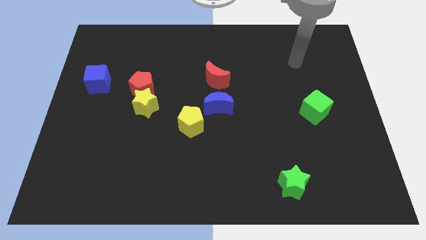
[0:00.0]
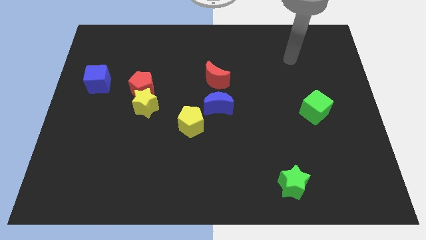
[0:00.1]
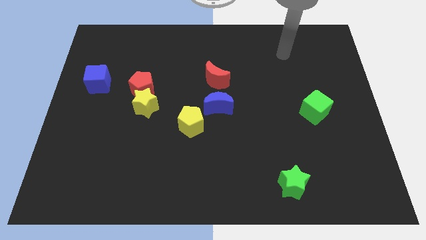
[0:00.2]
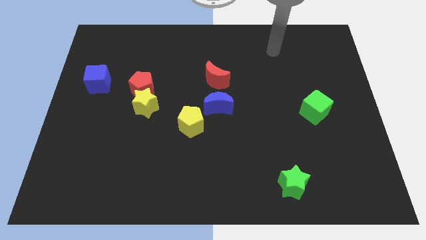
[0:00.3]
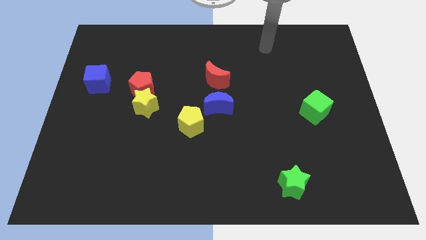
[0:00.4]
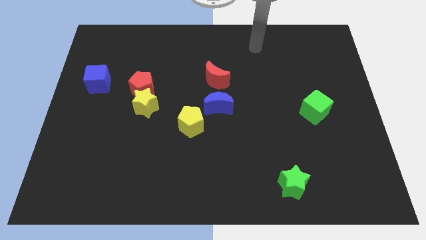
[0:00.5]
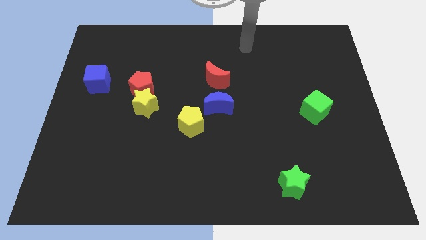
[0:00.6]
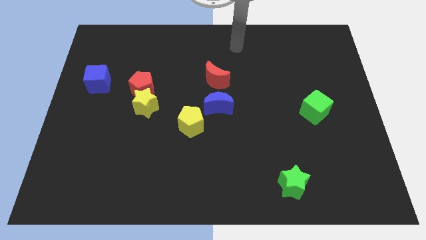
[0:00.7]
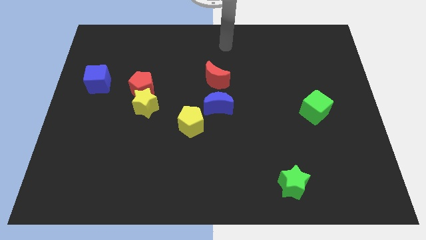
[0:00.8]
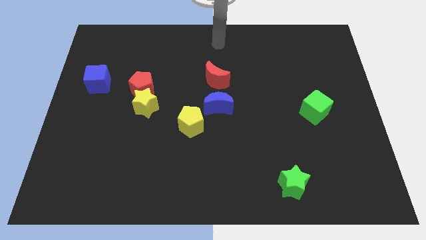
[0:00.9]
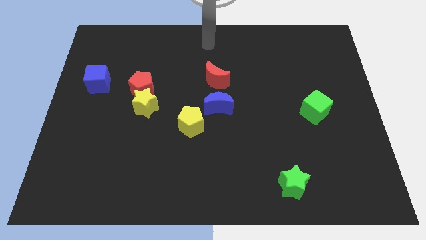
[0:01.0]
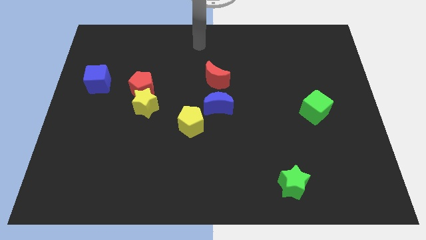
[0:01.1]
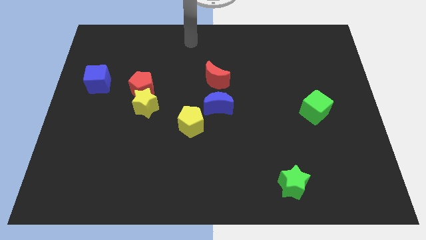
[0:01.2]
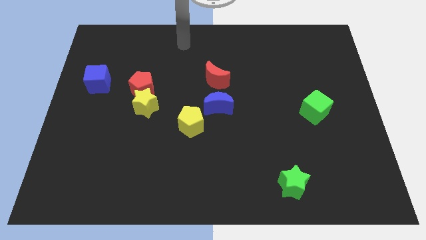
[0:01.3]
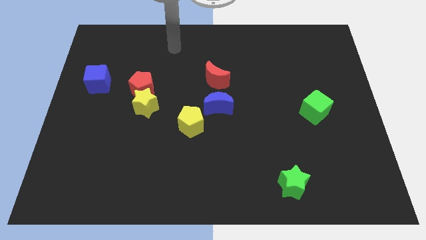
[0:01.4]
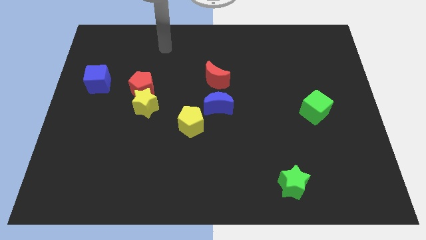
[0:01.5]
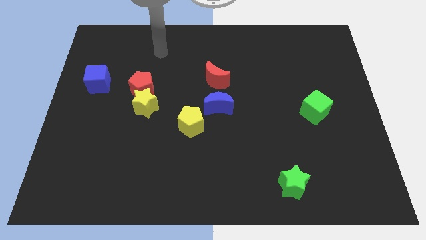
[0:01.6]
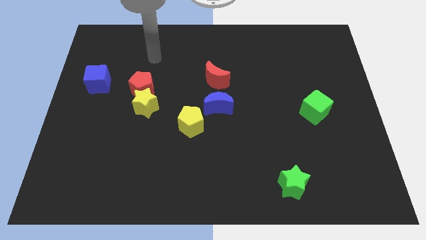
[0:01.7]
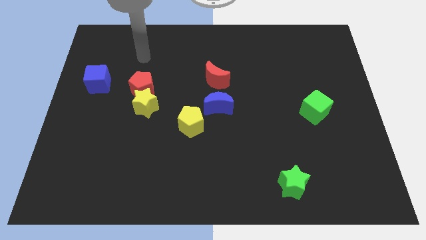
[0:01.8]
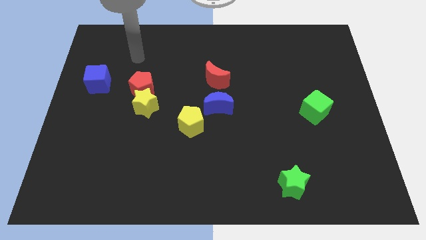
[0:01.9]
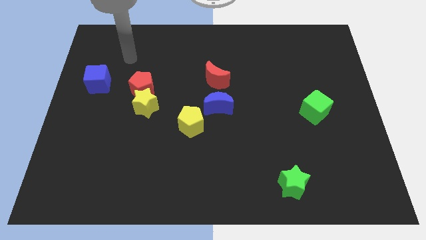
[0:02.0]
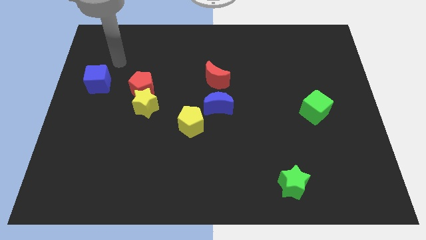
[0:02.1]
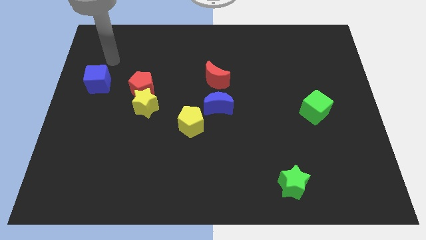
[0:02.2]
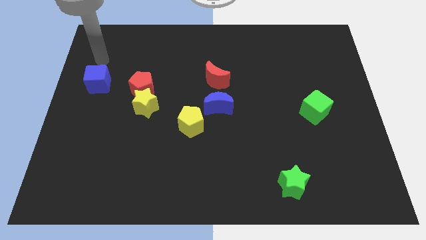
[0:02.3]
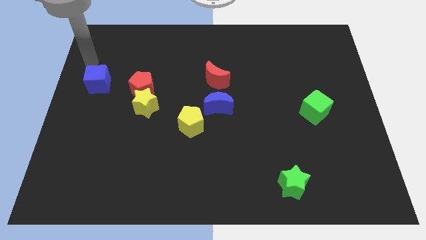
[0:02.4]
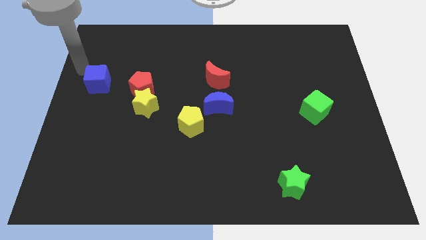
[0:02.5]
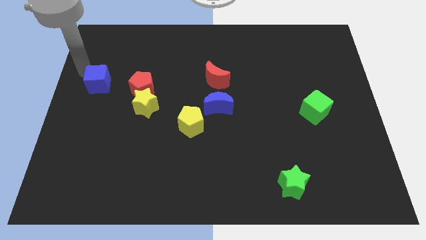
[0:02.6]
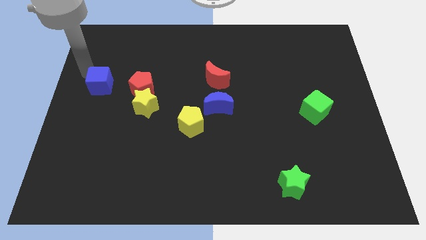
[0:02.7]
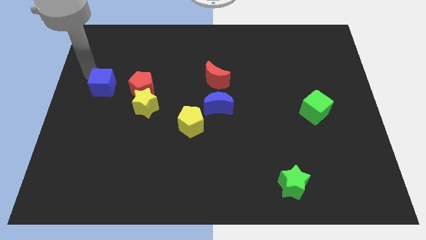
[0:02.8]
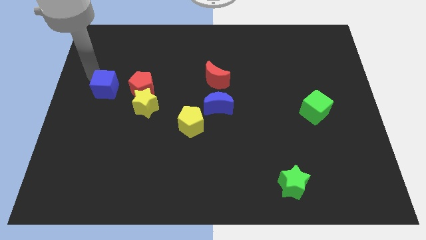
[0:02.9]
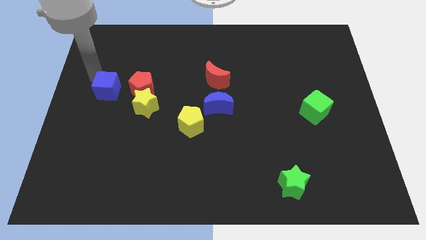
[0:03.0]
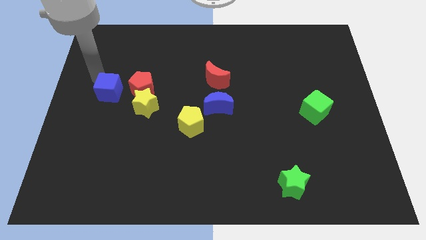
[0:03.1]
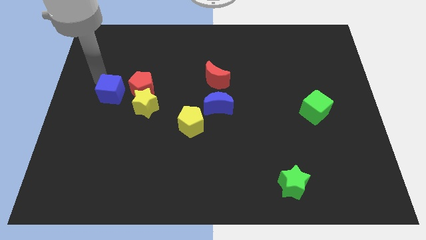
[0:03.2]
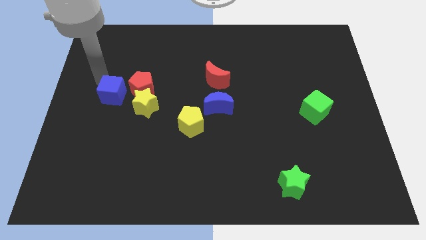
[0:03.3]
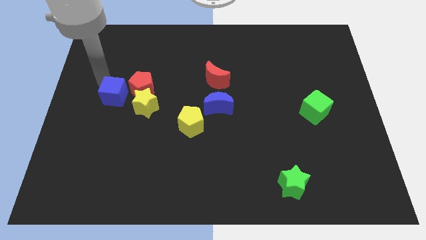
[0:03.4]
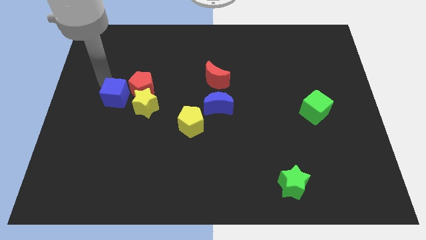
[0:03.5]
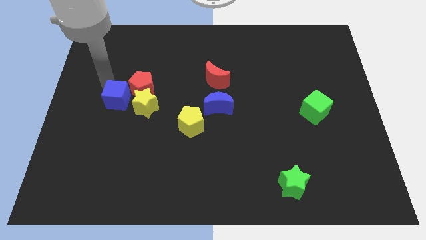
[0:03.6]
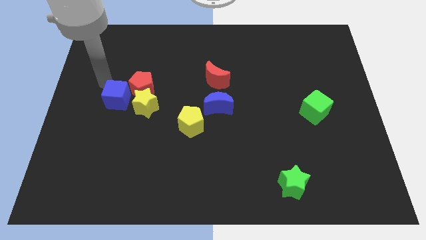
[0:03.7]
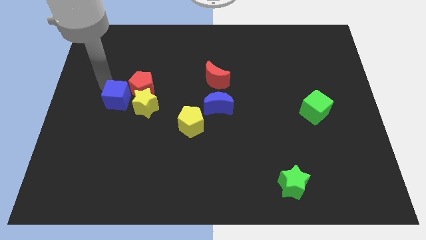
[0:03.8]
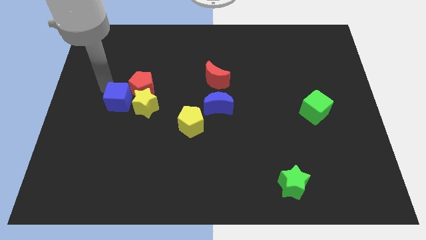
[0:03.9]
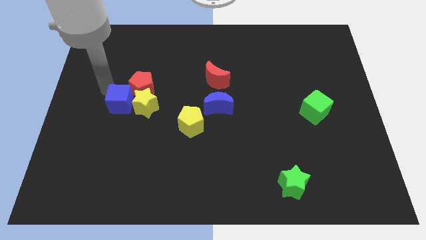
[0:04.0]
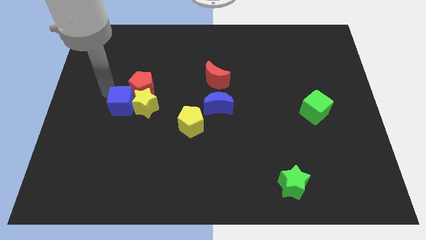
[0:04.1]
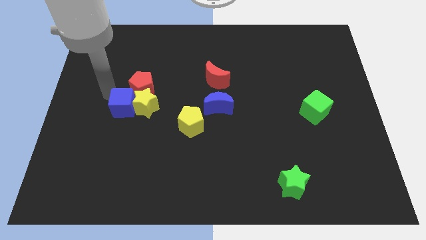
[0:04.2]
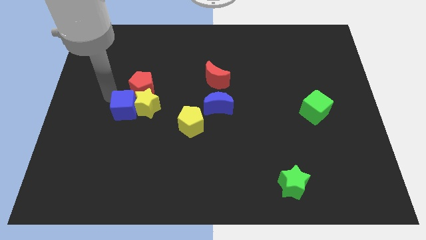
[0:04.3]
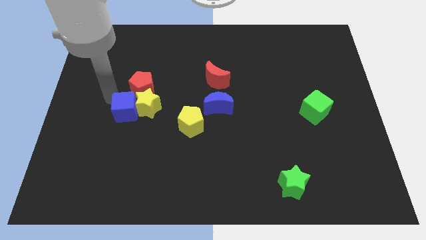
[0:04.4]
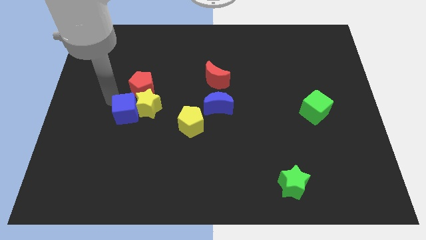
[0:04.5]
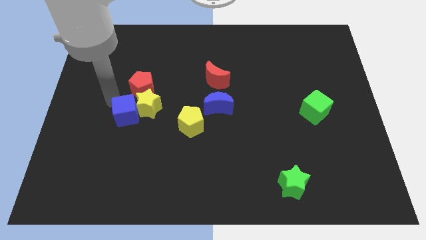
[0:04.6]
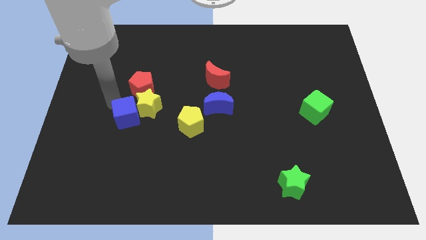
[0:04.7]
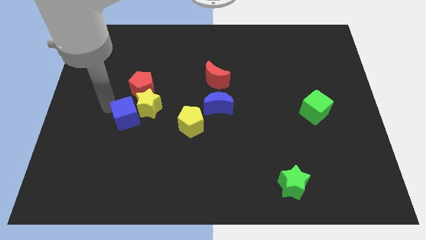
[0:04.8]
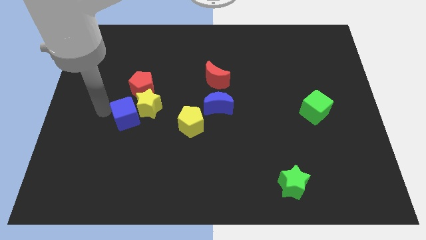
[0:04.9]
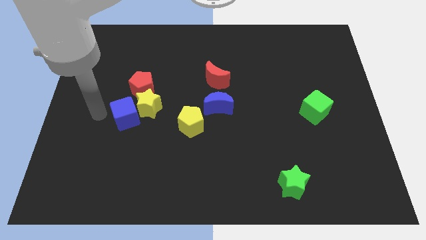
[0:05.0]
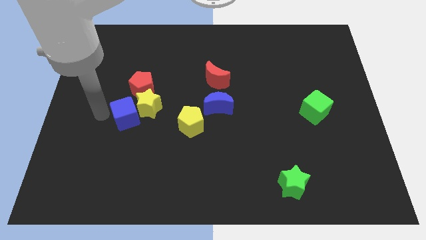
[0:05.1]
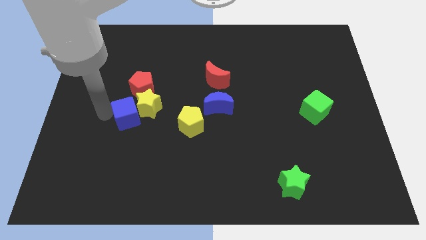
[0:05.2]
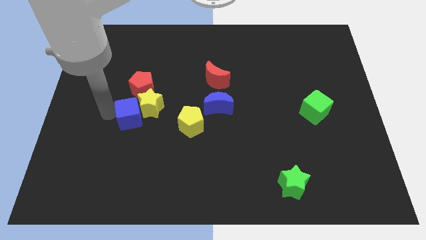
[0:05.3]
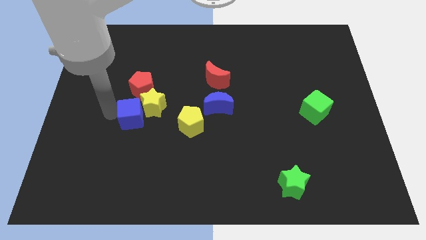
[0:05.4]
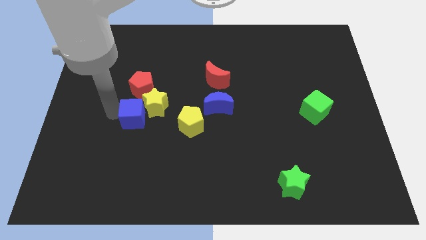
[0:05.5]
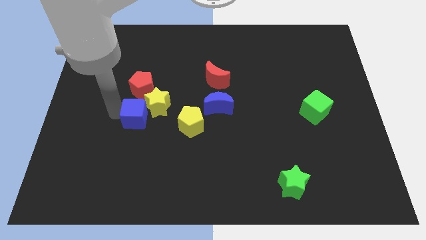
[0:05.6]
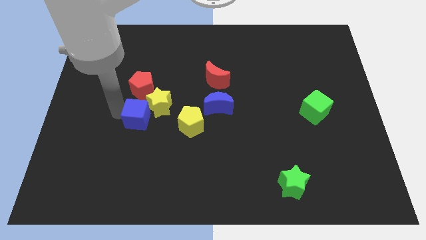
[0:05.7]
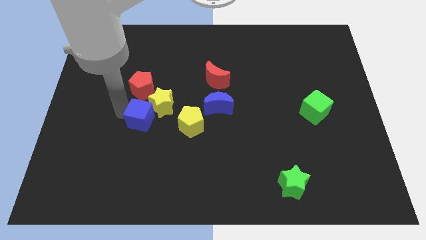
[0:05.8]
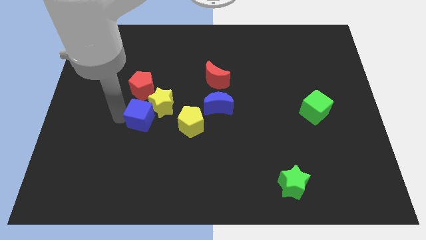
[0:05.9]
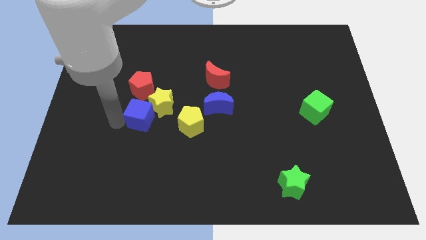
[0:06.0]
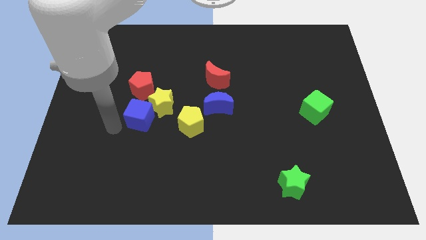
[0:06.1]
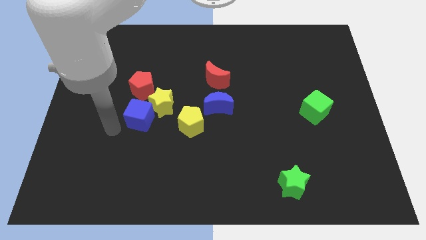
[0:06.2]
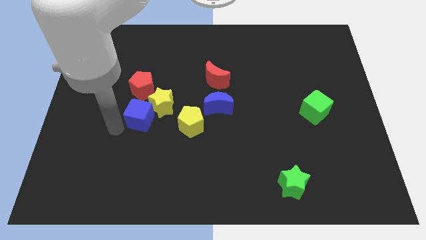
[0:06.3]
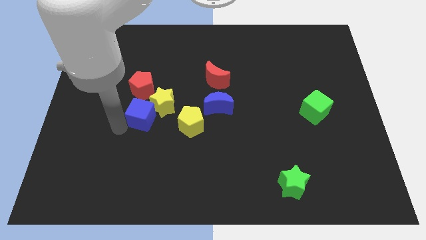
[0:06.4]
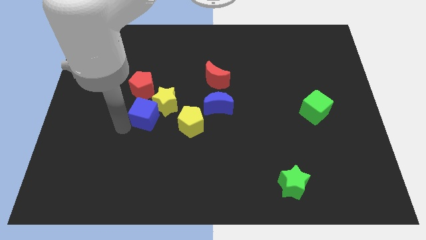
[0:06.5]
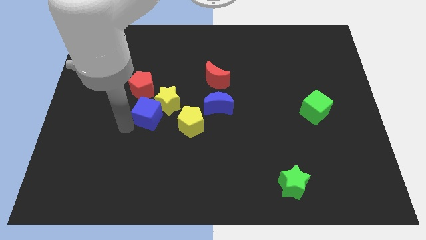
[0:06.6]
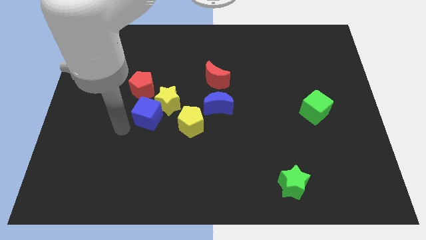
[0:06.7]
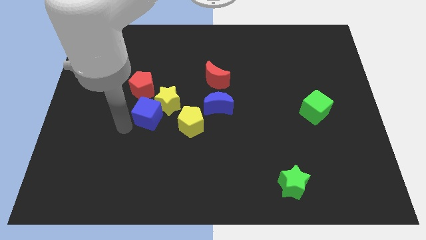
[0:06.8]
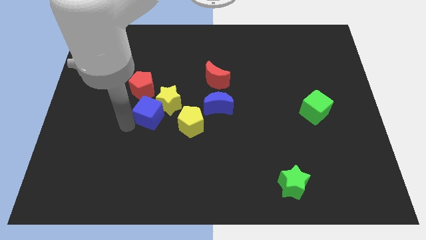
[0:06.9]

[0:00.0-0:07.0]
slide the blue cube to the top left side of the yellow pentagon
